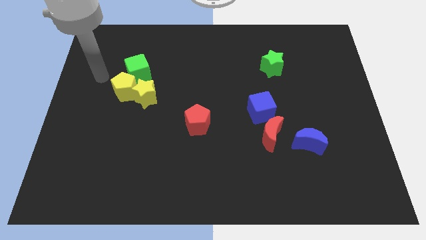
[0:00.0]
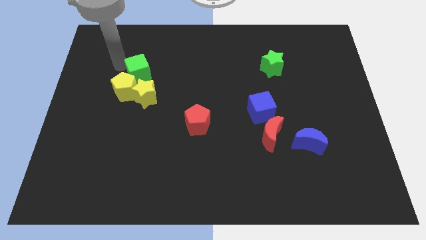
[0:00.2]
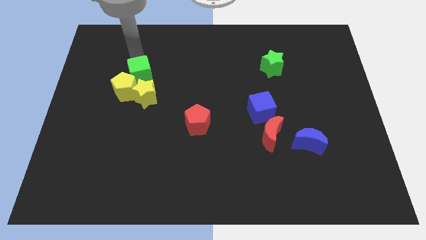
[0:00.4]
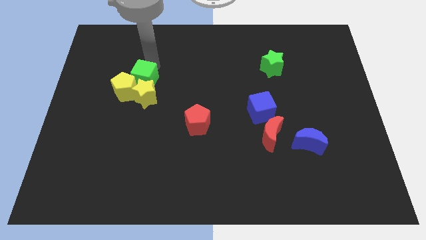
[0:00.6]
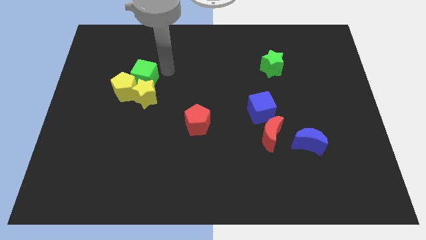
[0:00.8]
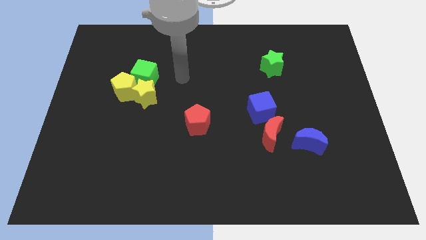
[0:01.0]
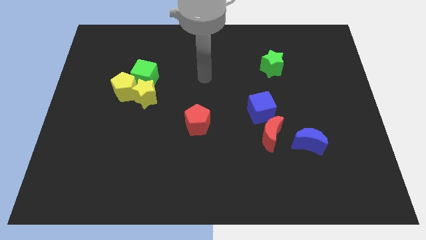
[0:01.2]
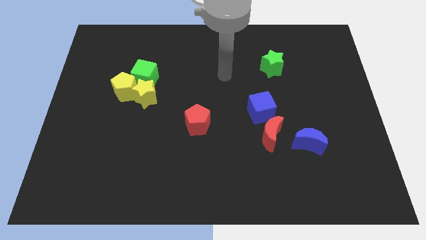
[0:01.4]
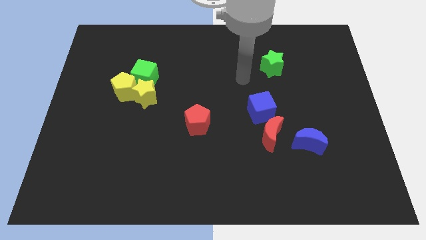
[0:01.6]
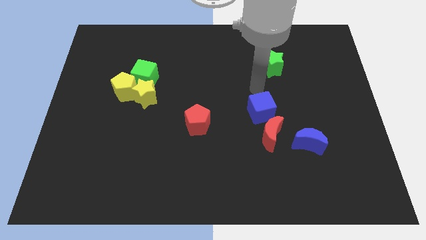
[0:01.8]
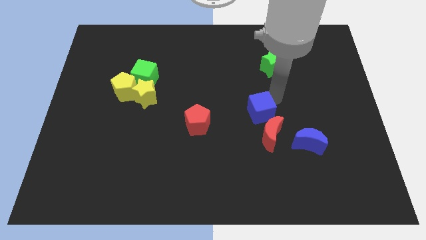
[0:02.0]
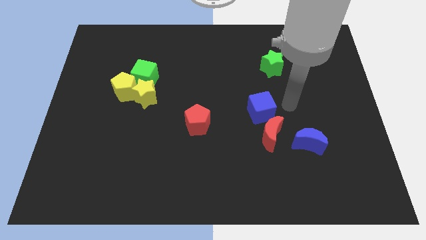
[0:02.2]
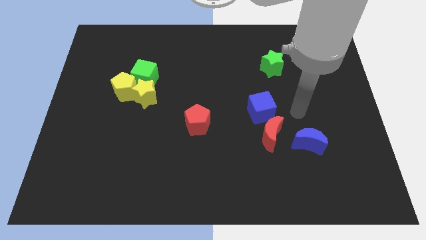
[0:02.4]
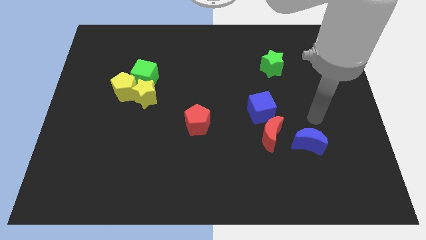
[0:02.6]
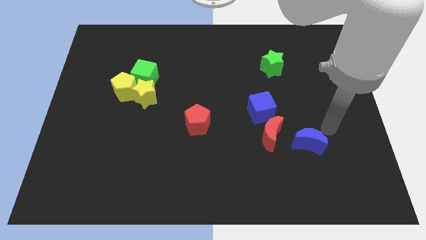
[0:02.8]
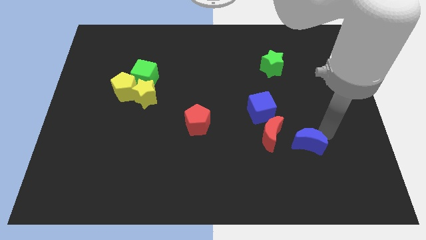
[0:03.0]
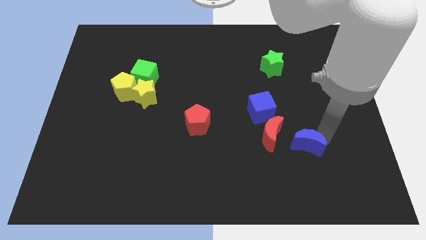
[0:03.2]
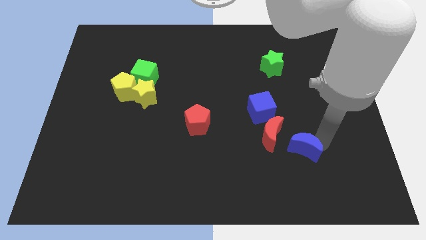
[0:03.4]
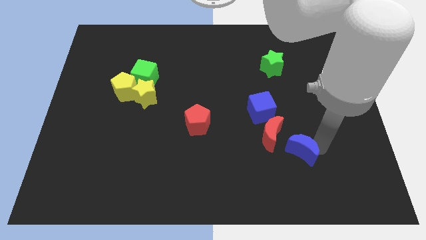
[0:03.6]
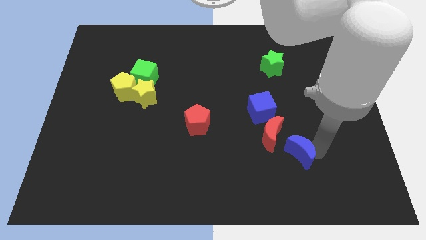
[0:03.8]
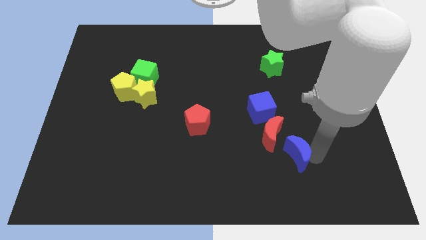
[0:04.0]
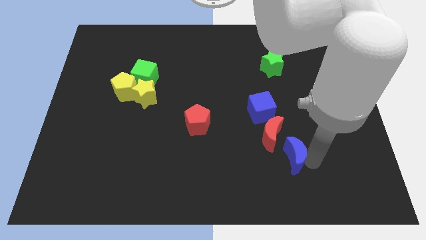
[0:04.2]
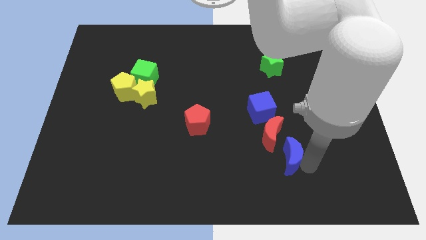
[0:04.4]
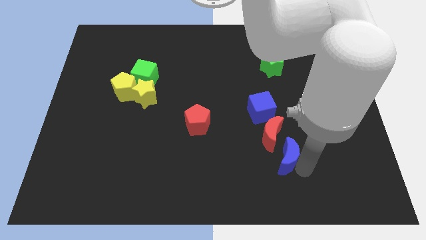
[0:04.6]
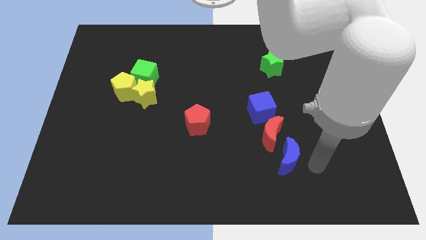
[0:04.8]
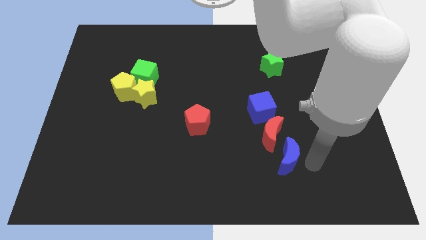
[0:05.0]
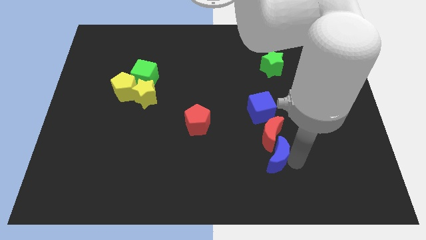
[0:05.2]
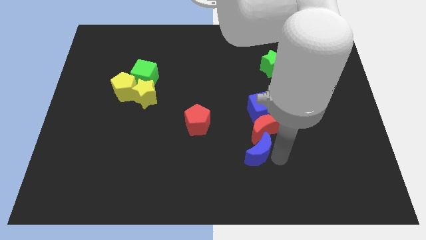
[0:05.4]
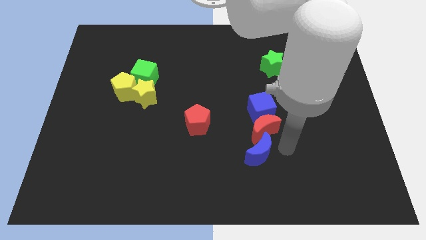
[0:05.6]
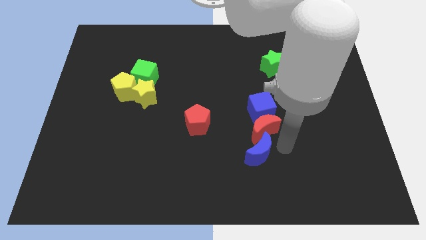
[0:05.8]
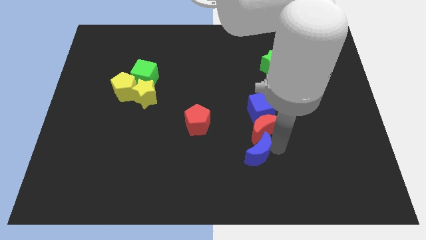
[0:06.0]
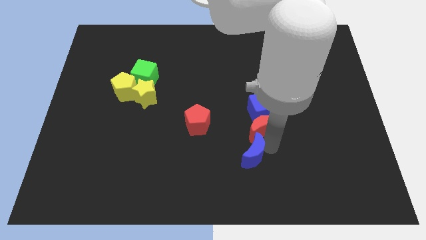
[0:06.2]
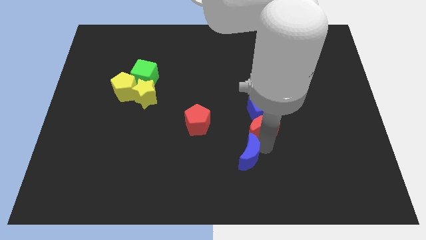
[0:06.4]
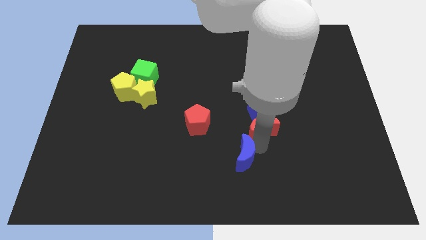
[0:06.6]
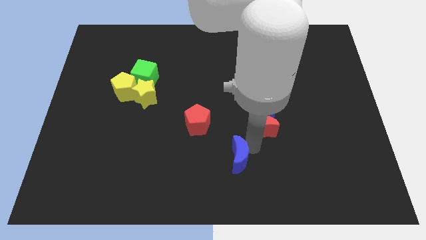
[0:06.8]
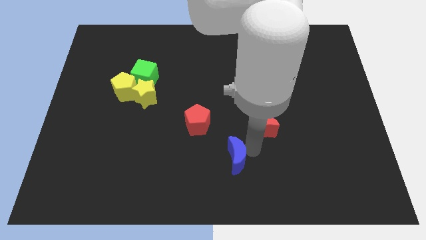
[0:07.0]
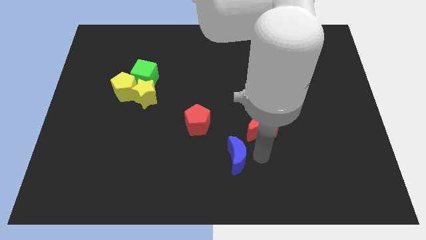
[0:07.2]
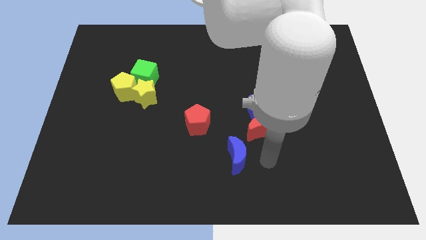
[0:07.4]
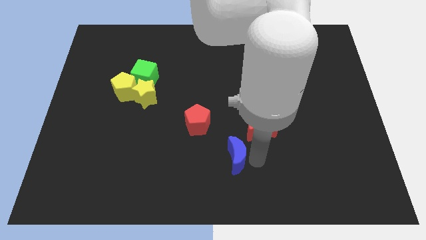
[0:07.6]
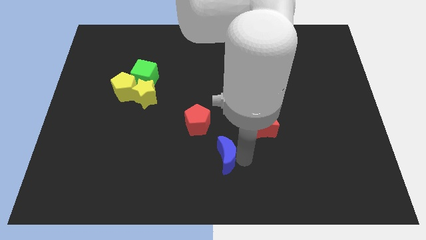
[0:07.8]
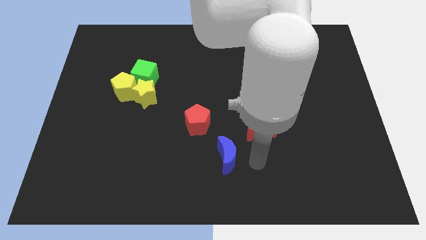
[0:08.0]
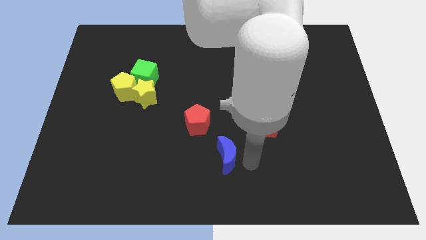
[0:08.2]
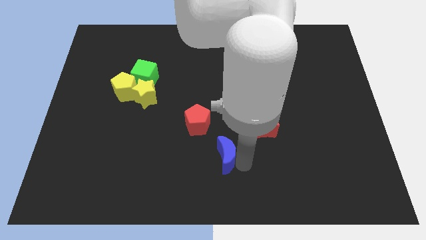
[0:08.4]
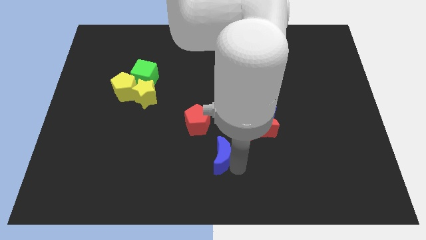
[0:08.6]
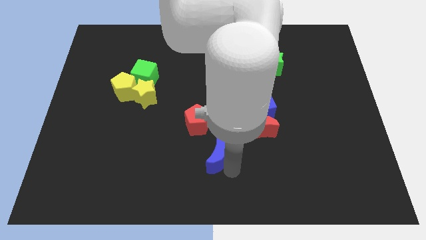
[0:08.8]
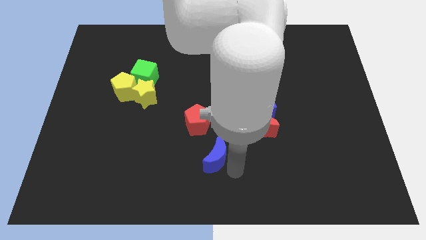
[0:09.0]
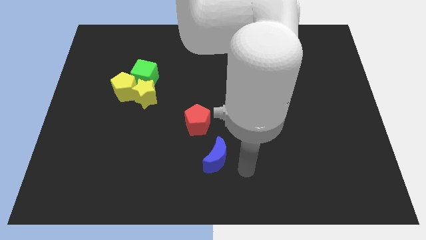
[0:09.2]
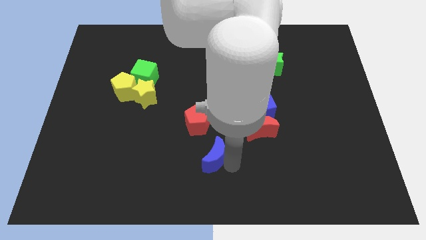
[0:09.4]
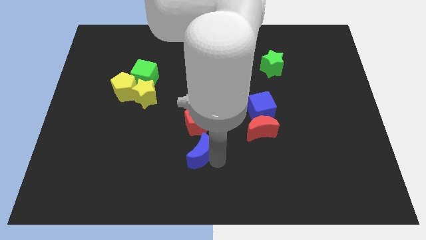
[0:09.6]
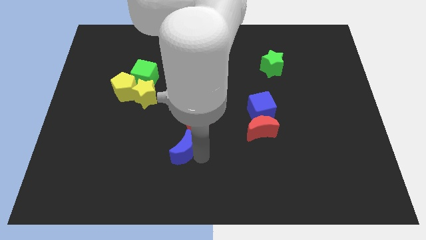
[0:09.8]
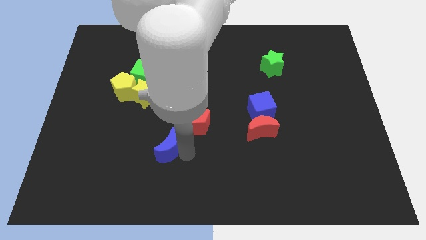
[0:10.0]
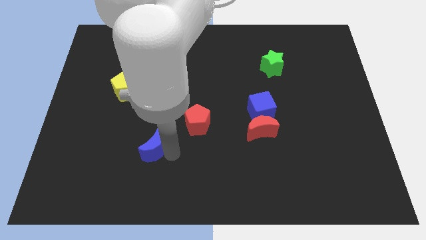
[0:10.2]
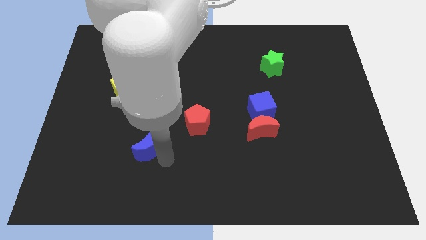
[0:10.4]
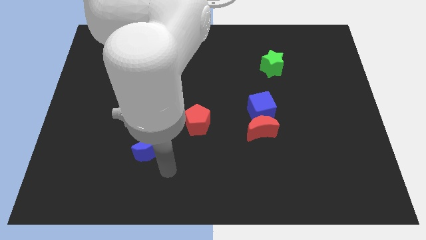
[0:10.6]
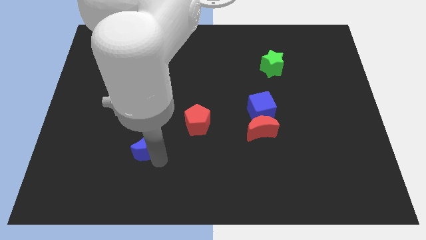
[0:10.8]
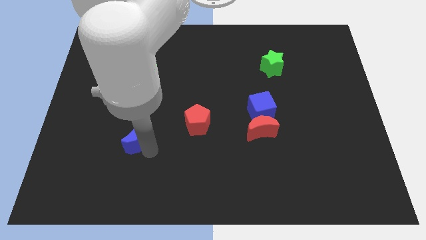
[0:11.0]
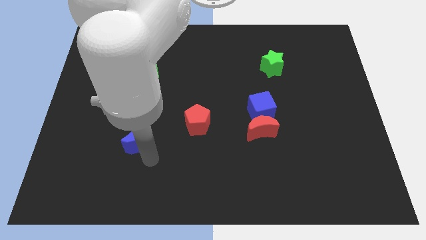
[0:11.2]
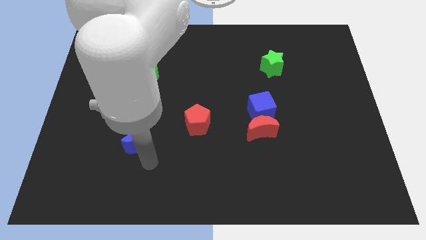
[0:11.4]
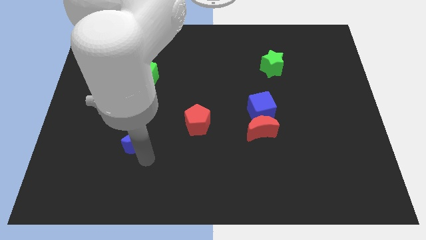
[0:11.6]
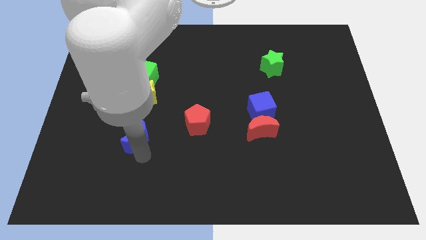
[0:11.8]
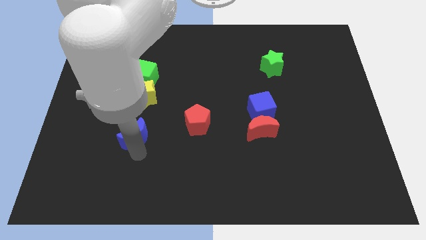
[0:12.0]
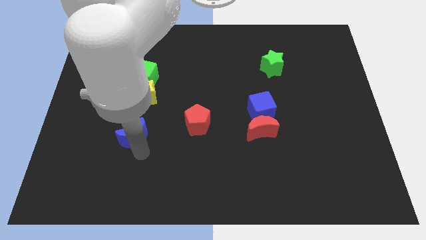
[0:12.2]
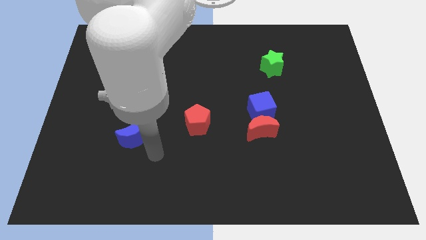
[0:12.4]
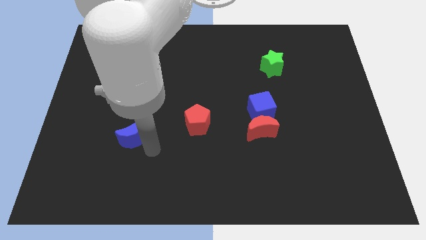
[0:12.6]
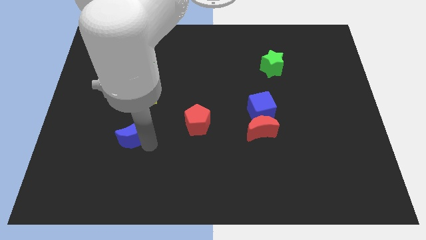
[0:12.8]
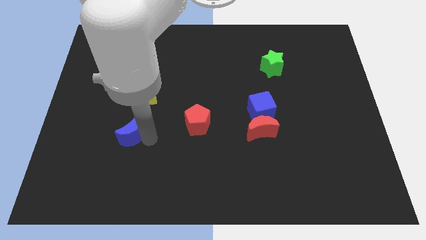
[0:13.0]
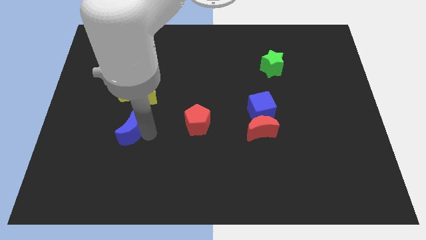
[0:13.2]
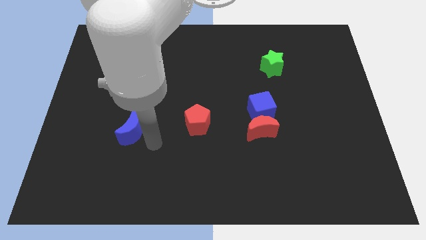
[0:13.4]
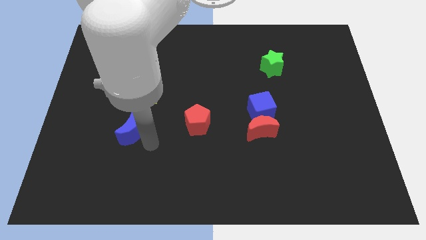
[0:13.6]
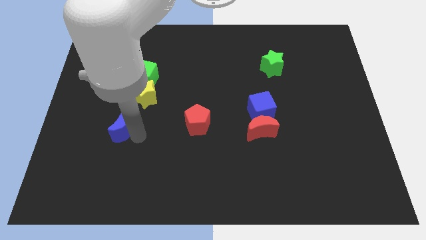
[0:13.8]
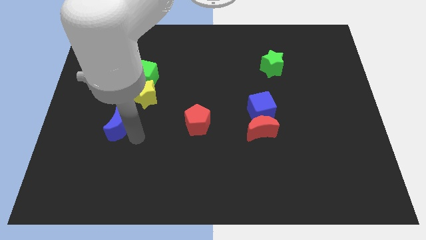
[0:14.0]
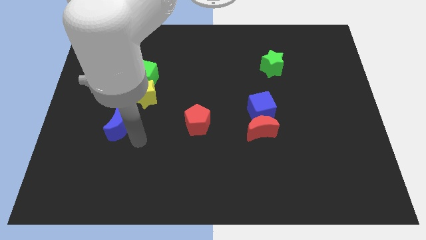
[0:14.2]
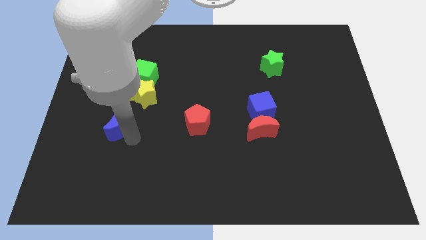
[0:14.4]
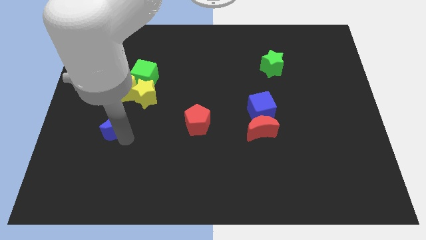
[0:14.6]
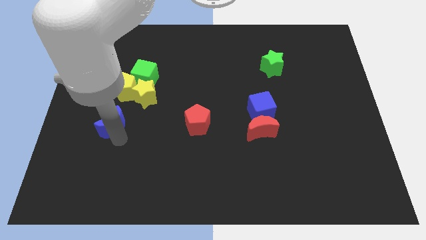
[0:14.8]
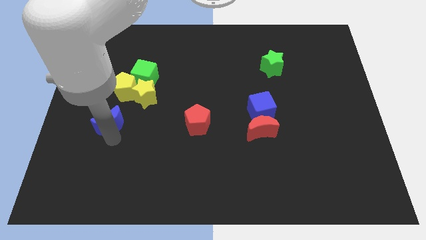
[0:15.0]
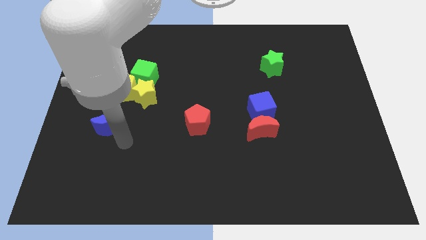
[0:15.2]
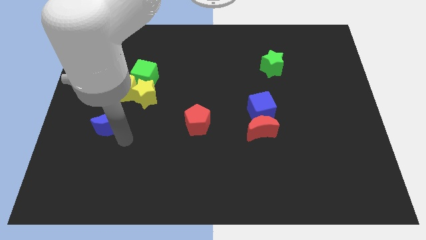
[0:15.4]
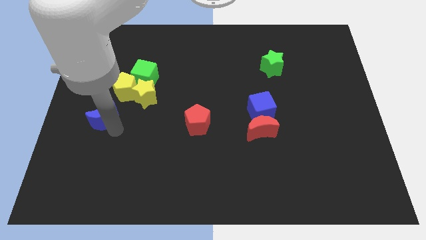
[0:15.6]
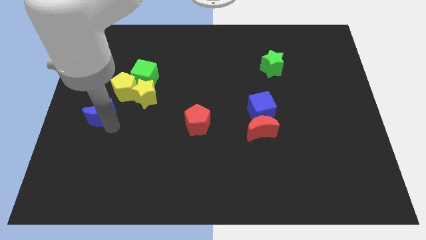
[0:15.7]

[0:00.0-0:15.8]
put the blue moon to the center left
